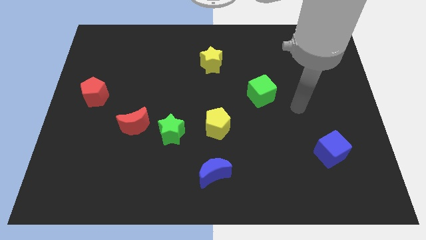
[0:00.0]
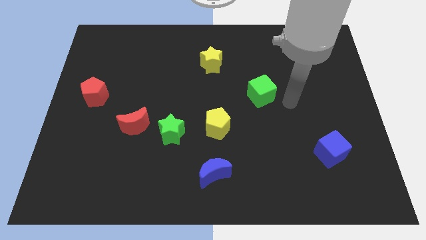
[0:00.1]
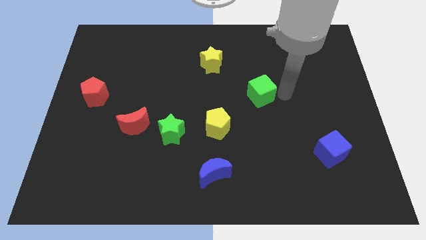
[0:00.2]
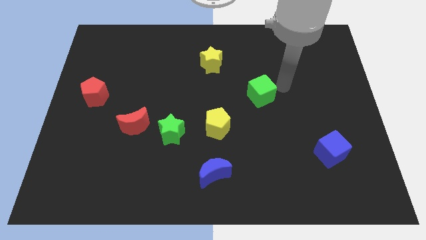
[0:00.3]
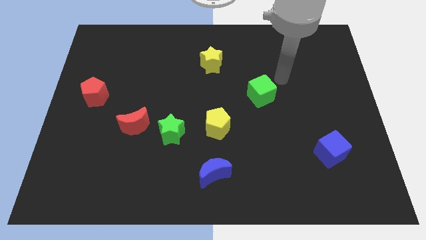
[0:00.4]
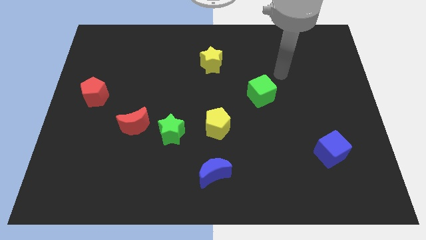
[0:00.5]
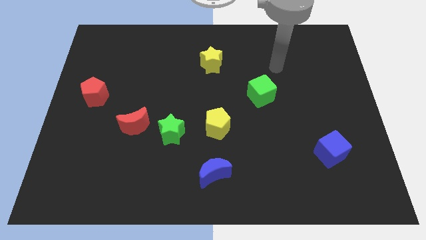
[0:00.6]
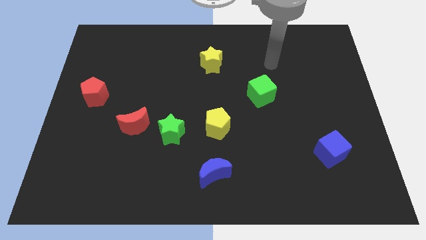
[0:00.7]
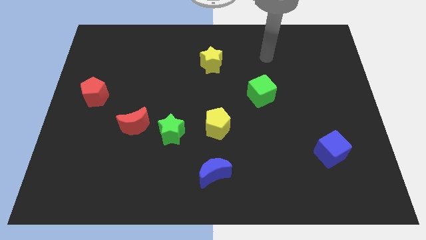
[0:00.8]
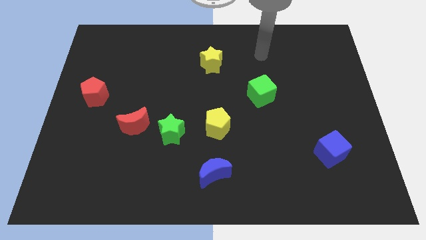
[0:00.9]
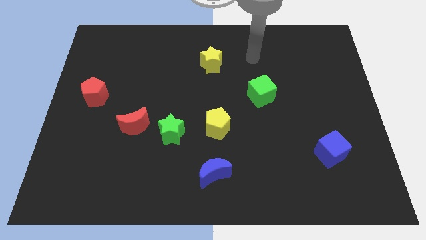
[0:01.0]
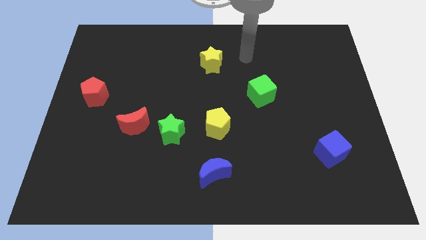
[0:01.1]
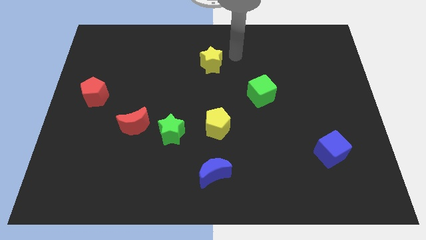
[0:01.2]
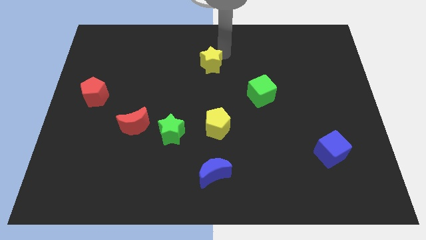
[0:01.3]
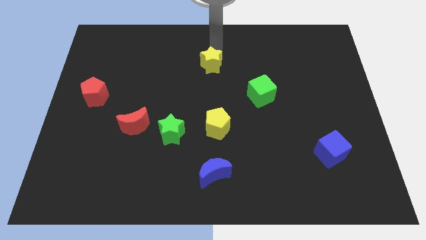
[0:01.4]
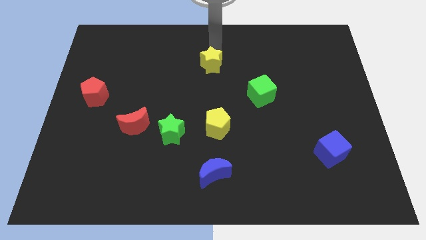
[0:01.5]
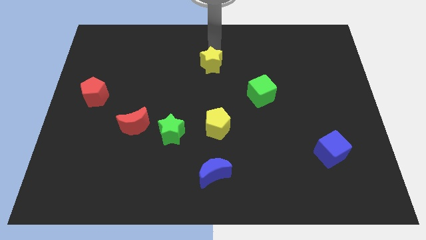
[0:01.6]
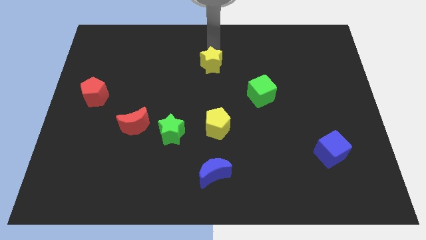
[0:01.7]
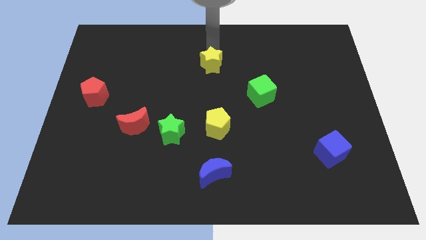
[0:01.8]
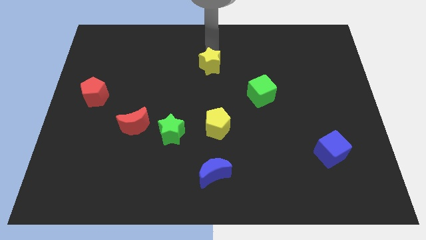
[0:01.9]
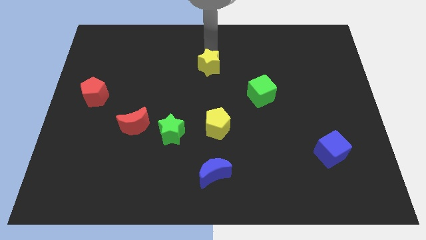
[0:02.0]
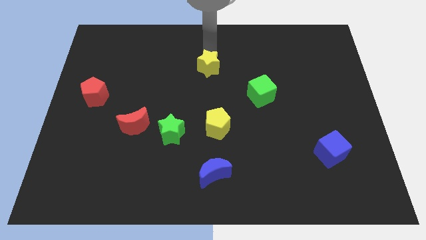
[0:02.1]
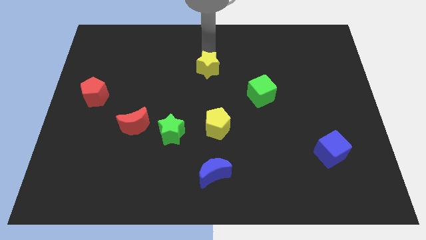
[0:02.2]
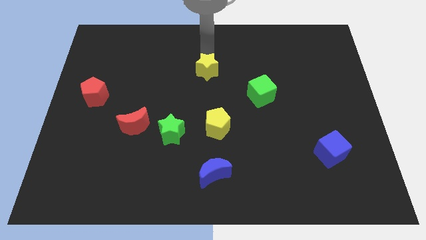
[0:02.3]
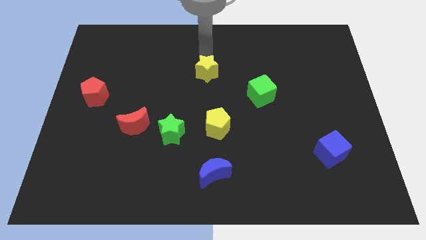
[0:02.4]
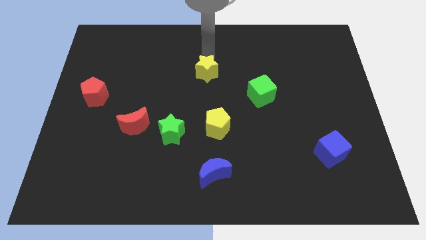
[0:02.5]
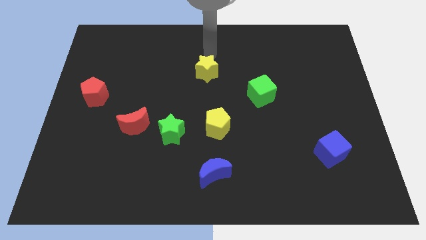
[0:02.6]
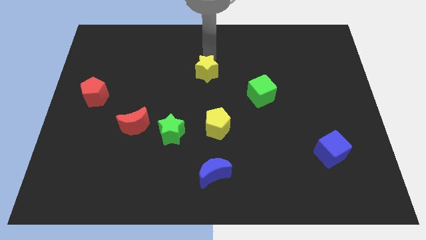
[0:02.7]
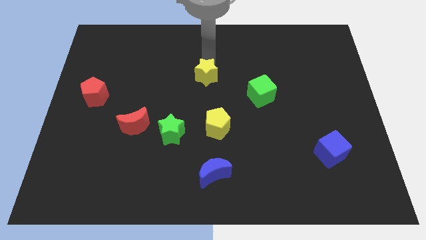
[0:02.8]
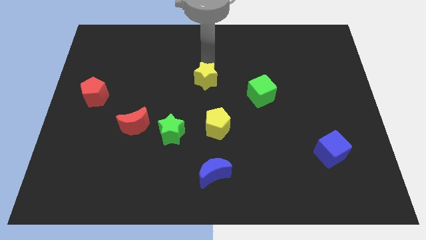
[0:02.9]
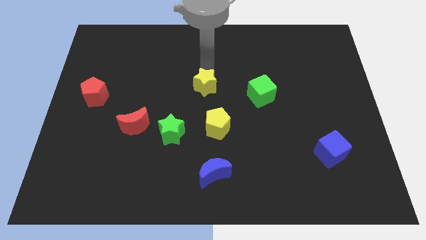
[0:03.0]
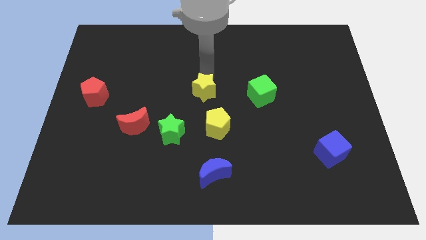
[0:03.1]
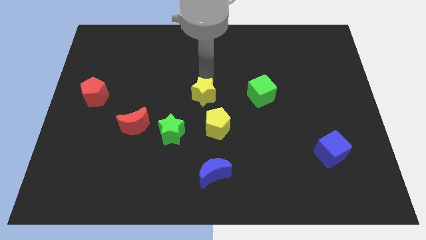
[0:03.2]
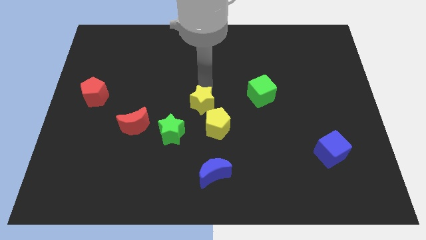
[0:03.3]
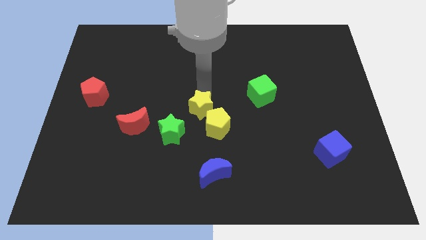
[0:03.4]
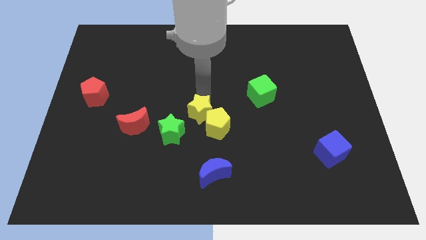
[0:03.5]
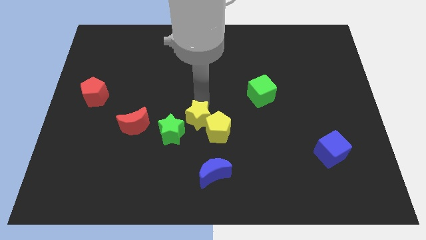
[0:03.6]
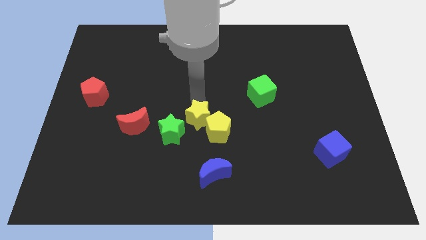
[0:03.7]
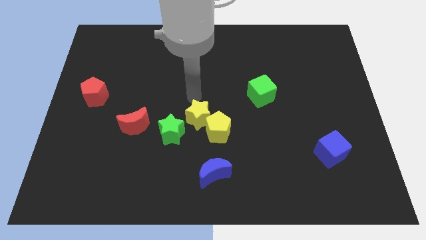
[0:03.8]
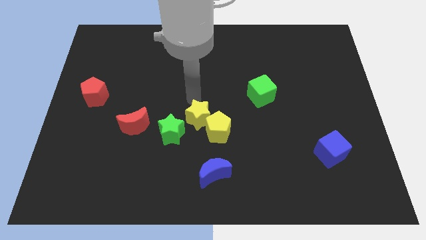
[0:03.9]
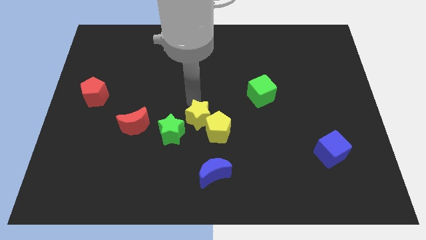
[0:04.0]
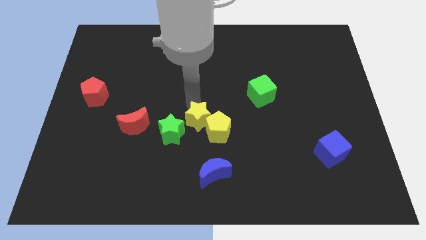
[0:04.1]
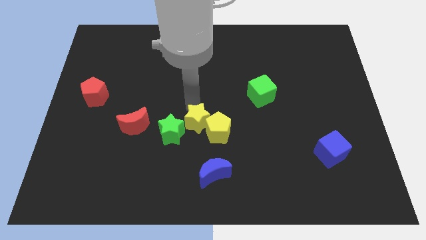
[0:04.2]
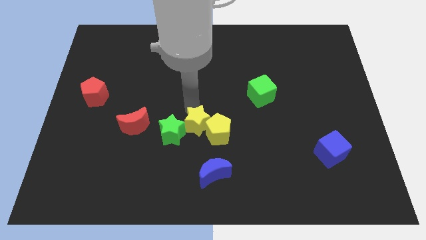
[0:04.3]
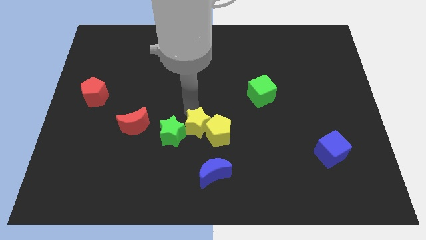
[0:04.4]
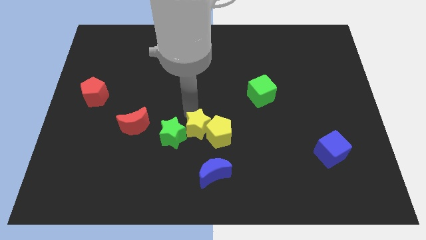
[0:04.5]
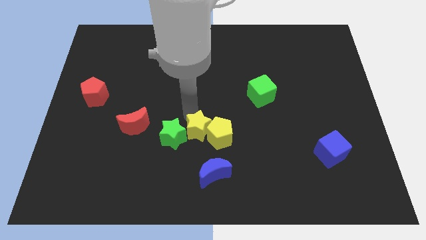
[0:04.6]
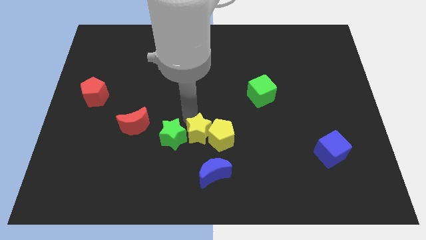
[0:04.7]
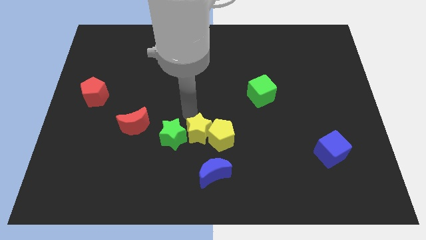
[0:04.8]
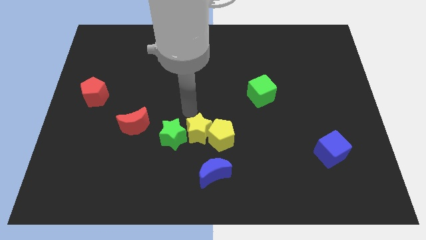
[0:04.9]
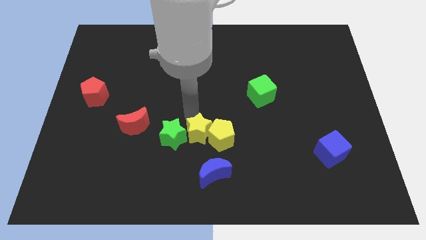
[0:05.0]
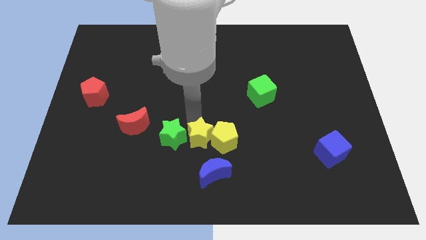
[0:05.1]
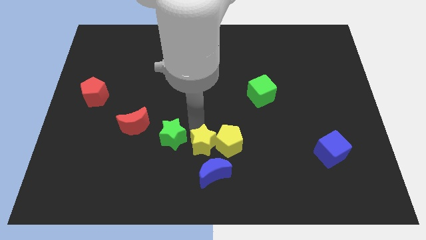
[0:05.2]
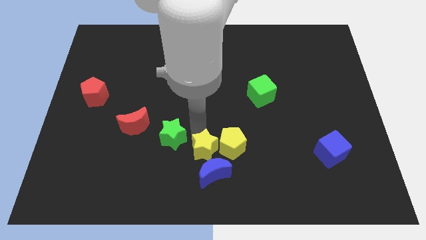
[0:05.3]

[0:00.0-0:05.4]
move the yellow star next to the blue moon

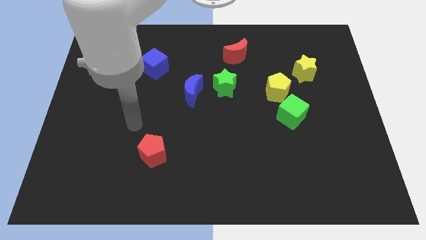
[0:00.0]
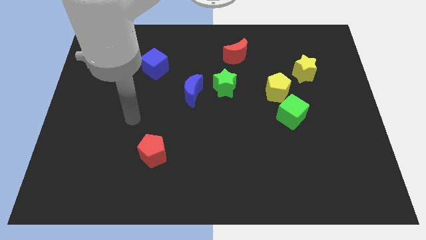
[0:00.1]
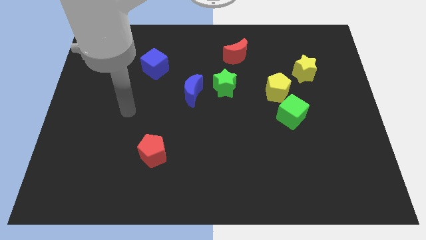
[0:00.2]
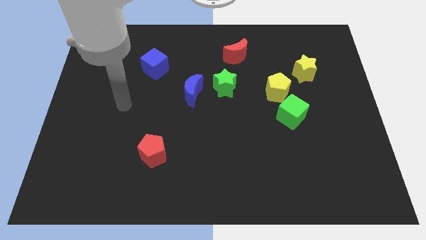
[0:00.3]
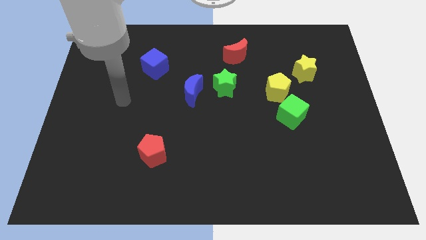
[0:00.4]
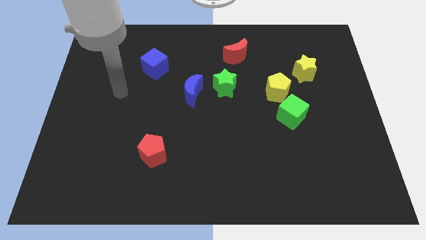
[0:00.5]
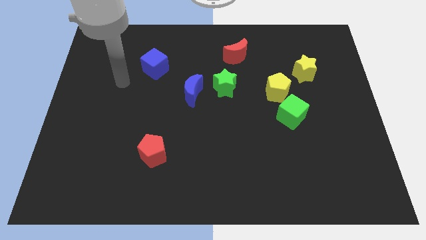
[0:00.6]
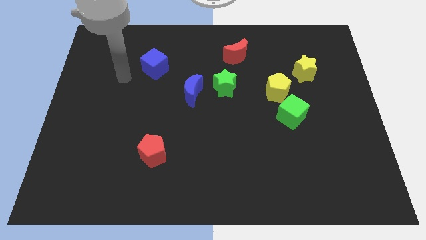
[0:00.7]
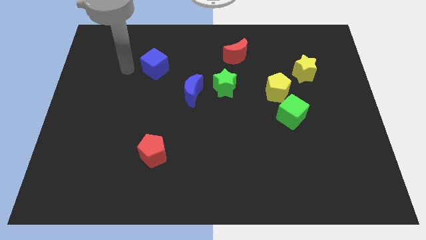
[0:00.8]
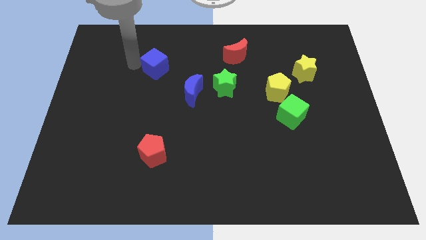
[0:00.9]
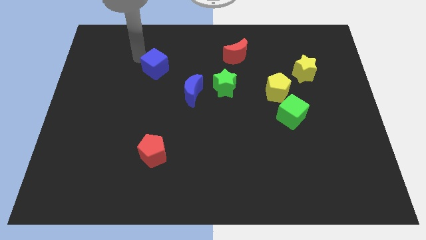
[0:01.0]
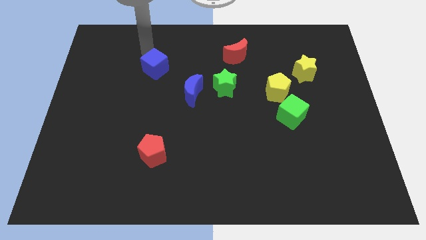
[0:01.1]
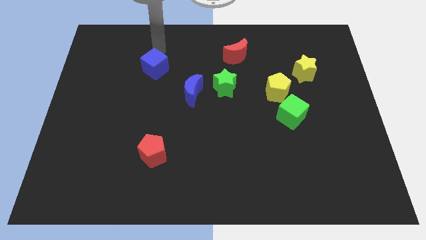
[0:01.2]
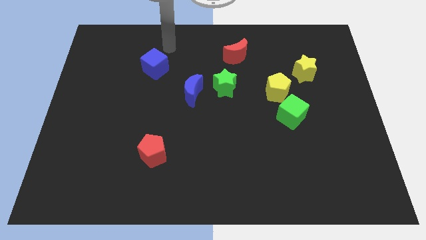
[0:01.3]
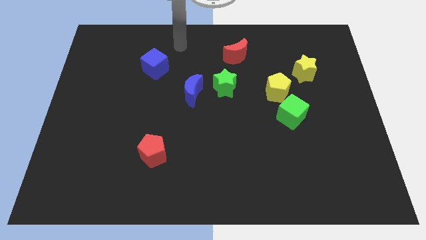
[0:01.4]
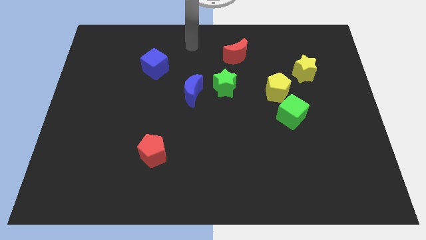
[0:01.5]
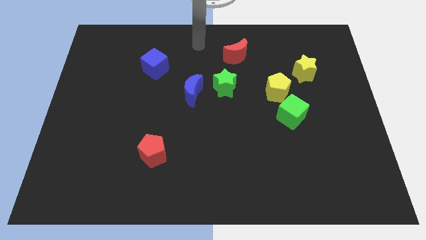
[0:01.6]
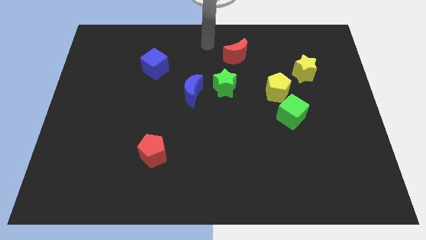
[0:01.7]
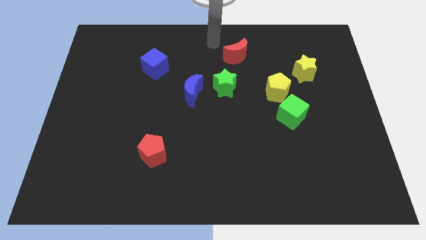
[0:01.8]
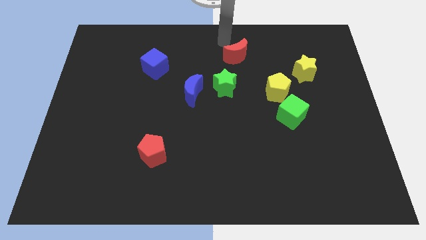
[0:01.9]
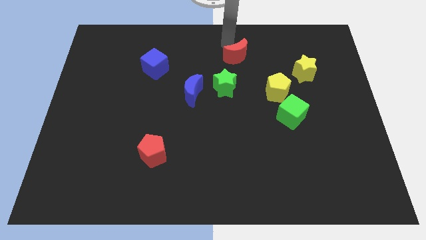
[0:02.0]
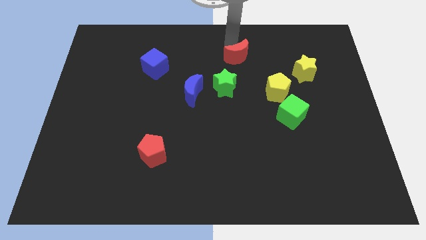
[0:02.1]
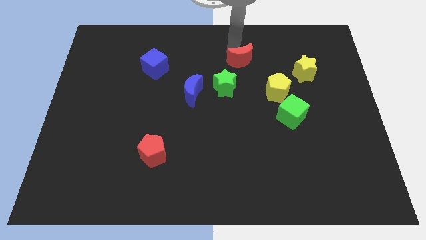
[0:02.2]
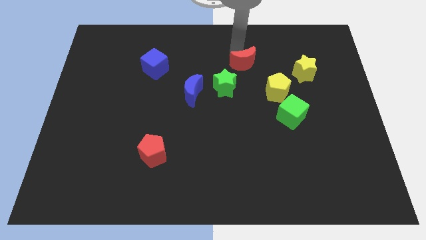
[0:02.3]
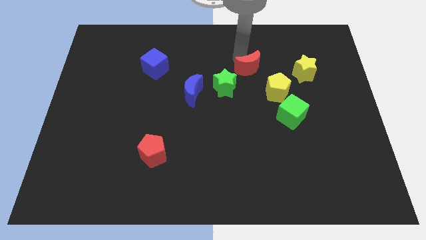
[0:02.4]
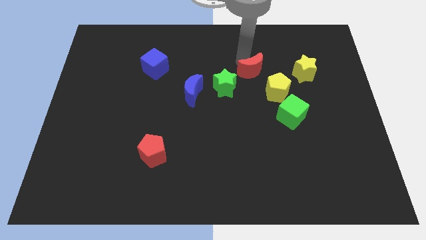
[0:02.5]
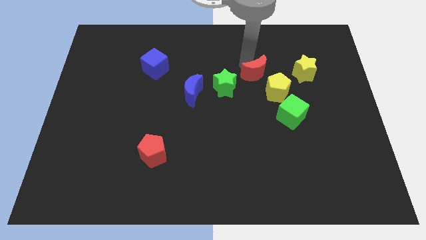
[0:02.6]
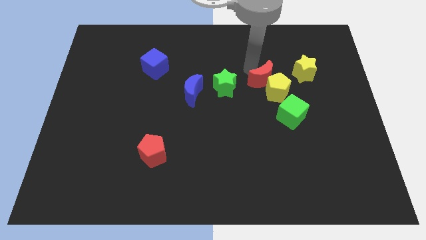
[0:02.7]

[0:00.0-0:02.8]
move the red moon to the yellow pentagon

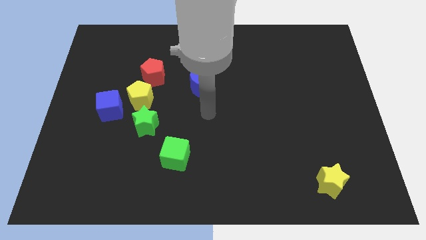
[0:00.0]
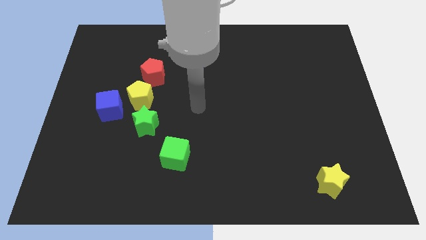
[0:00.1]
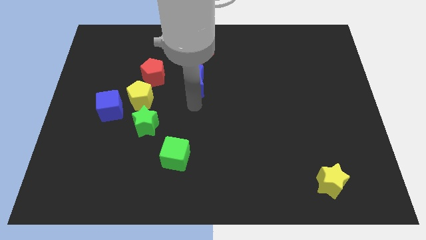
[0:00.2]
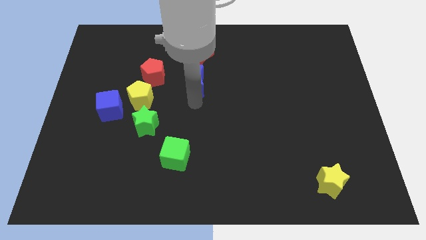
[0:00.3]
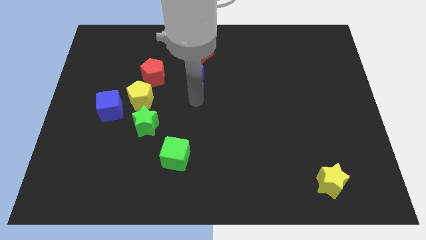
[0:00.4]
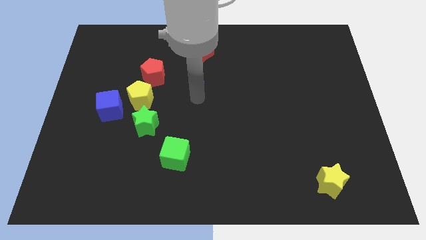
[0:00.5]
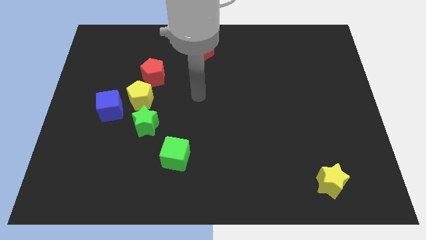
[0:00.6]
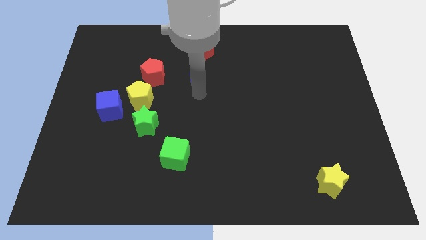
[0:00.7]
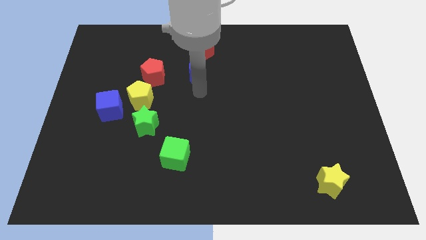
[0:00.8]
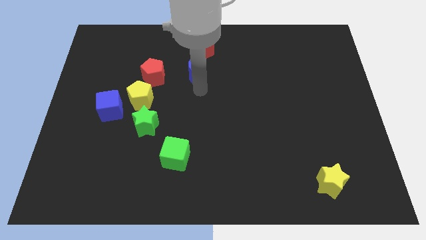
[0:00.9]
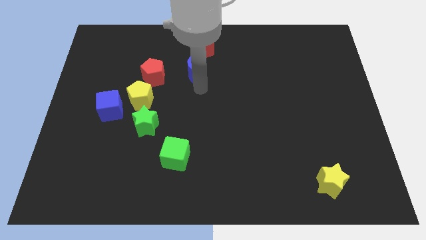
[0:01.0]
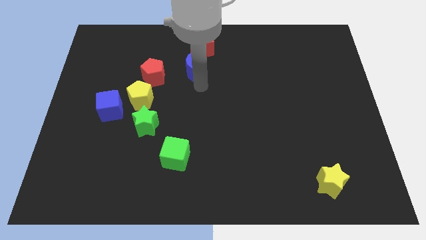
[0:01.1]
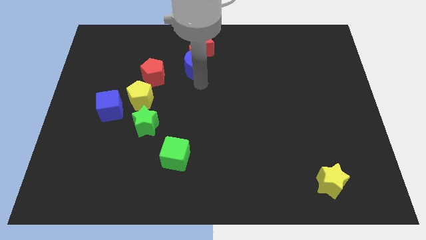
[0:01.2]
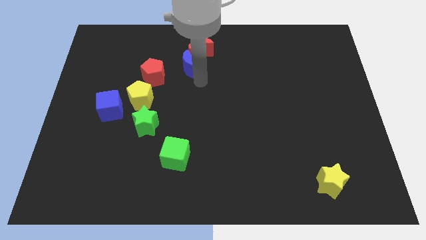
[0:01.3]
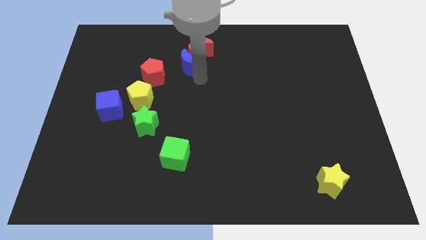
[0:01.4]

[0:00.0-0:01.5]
move the blue moon close to the red moon
